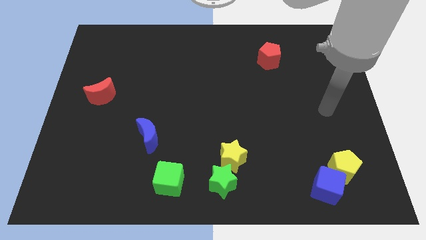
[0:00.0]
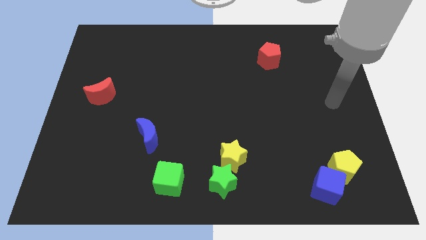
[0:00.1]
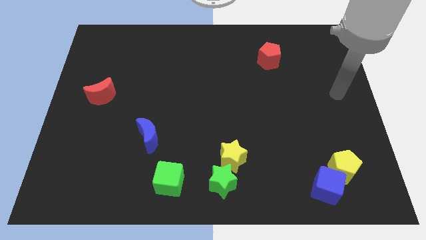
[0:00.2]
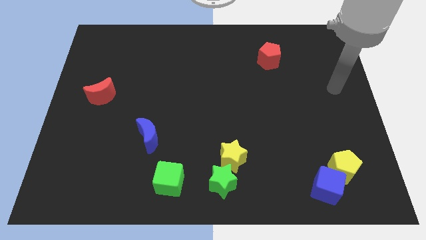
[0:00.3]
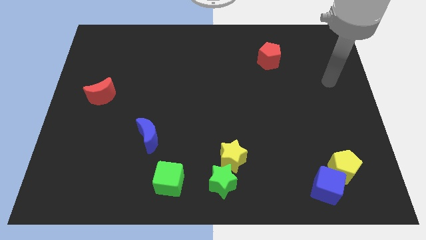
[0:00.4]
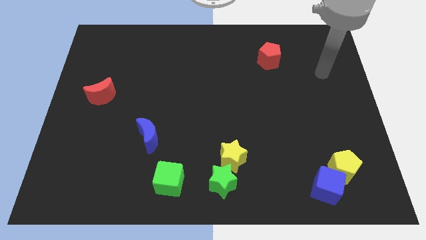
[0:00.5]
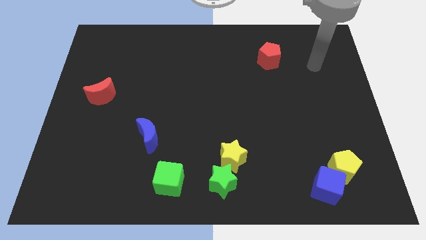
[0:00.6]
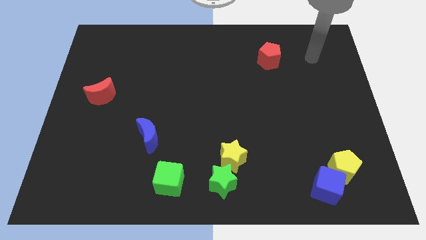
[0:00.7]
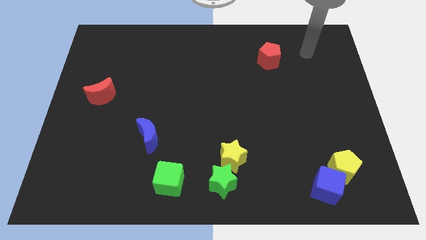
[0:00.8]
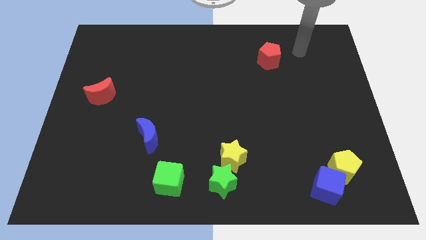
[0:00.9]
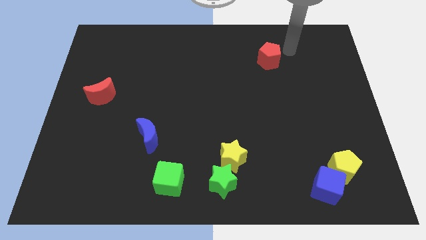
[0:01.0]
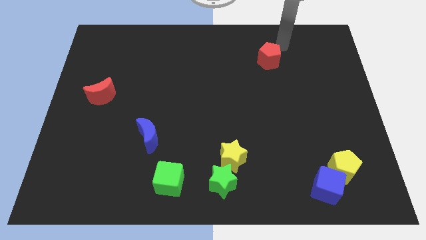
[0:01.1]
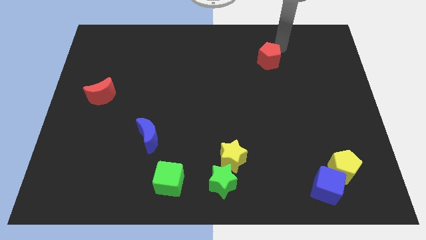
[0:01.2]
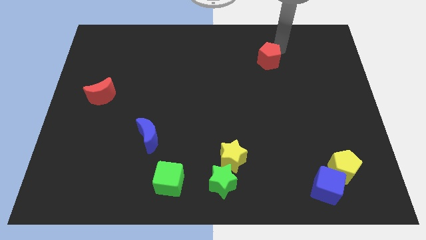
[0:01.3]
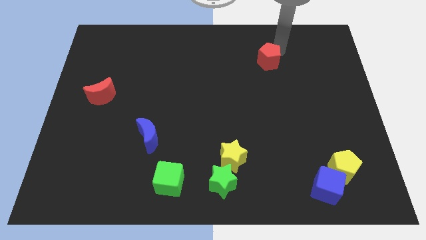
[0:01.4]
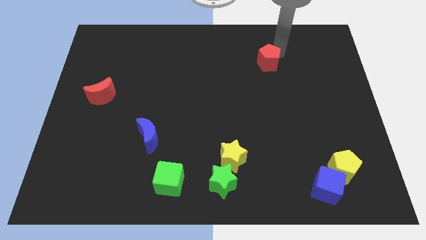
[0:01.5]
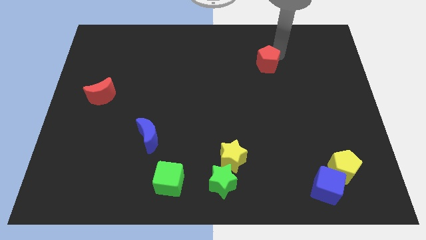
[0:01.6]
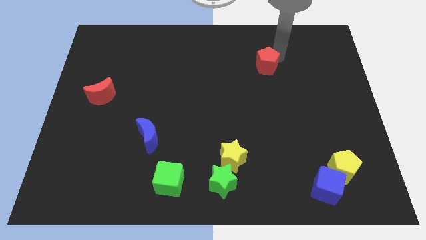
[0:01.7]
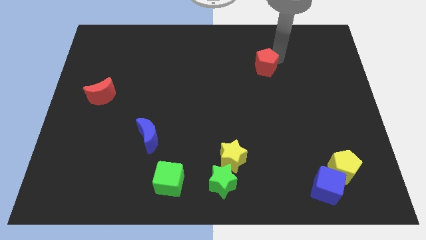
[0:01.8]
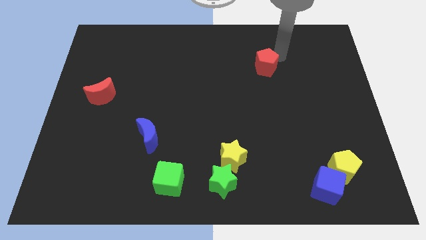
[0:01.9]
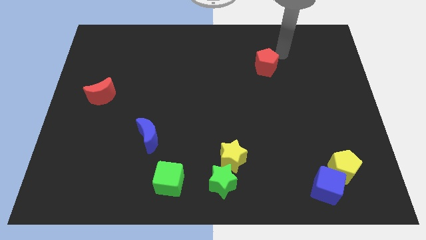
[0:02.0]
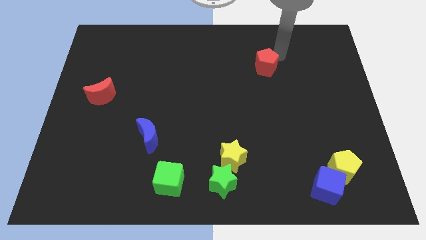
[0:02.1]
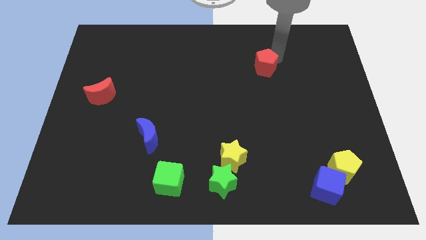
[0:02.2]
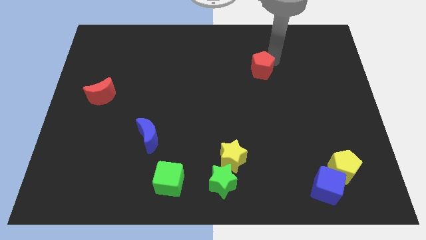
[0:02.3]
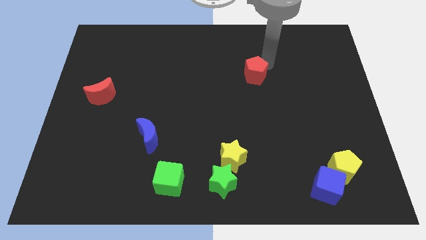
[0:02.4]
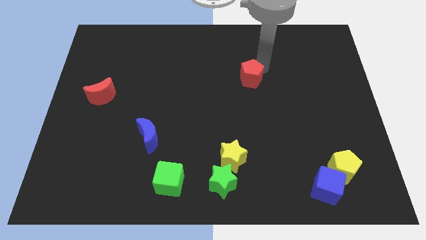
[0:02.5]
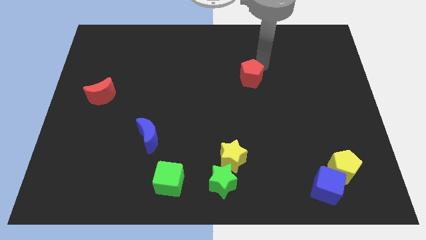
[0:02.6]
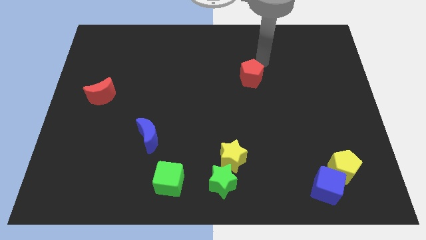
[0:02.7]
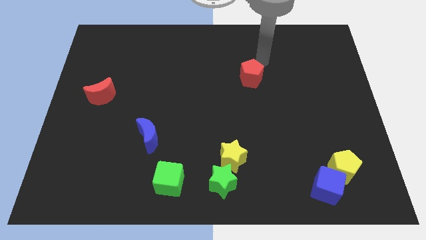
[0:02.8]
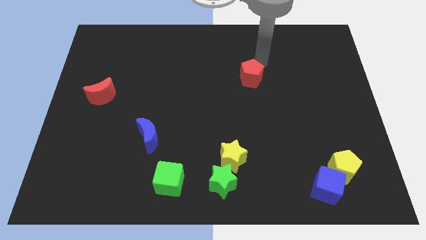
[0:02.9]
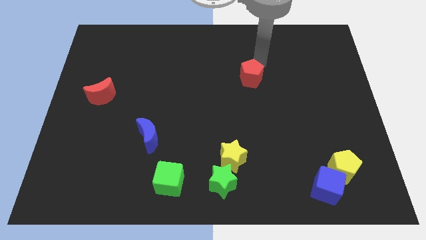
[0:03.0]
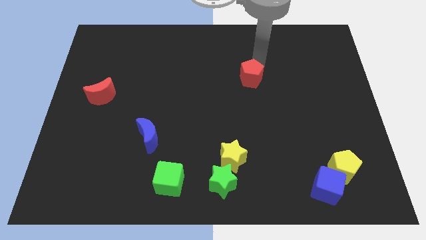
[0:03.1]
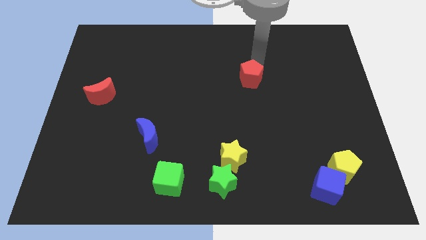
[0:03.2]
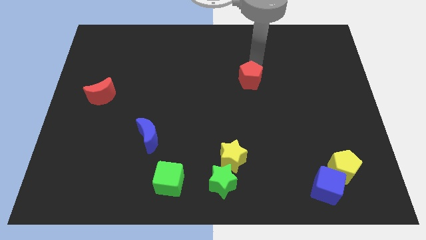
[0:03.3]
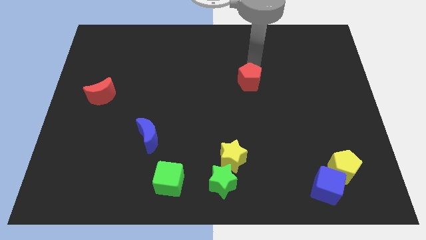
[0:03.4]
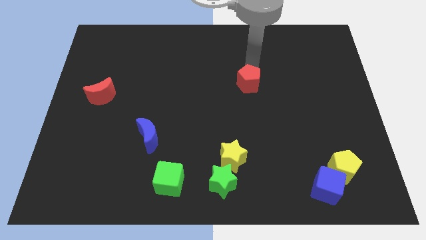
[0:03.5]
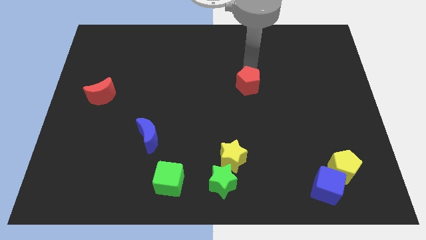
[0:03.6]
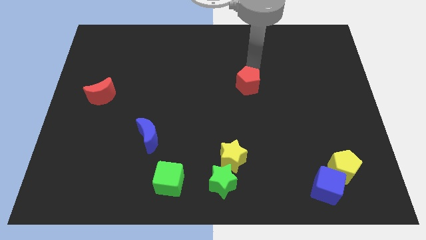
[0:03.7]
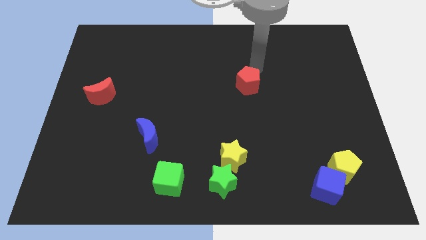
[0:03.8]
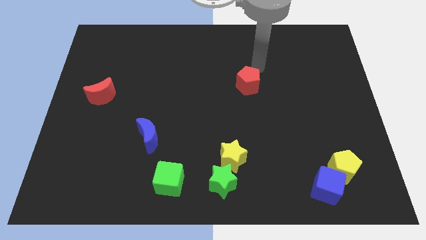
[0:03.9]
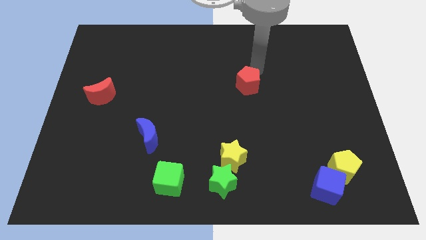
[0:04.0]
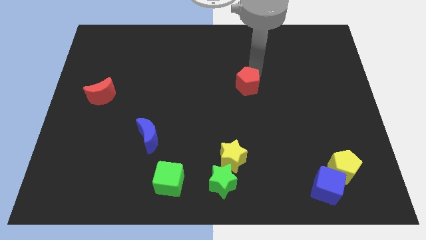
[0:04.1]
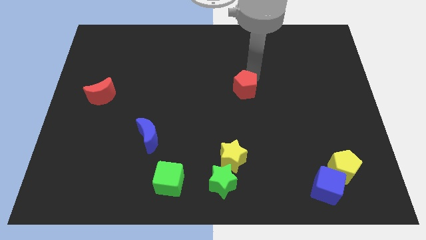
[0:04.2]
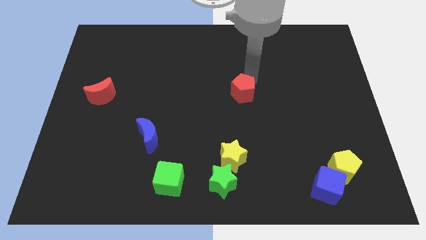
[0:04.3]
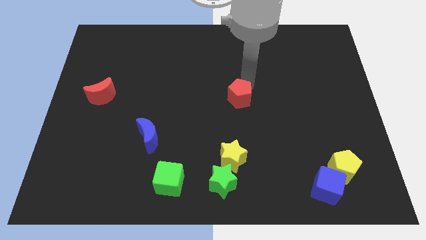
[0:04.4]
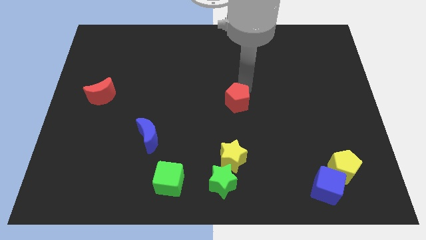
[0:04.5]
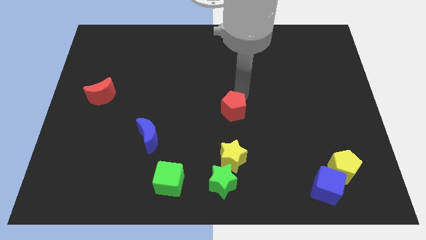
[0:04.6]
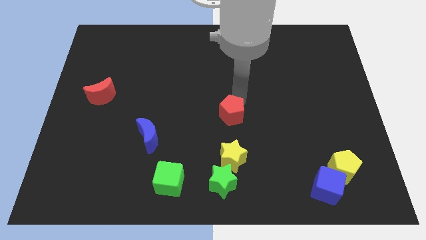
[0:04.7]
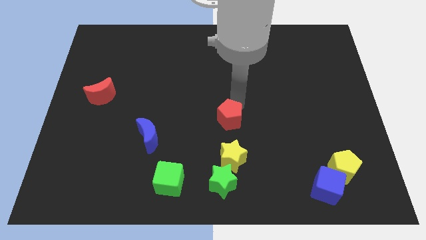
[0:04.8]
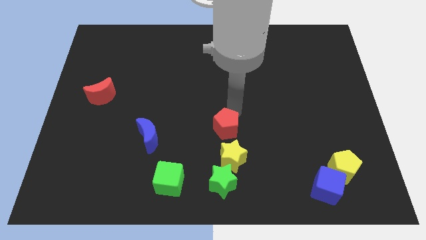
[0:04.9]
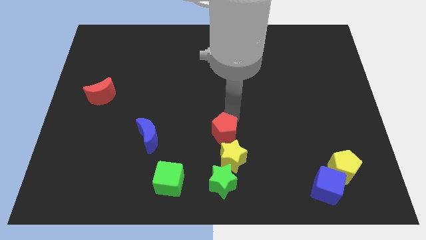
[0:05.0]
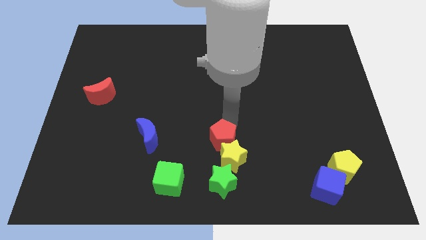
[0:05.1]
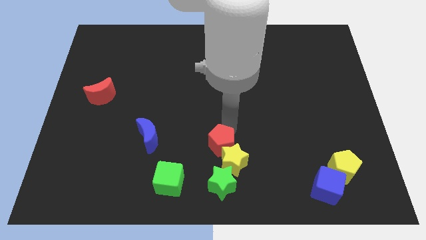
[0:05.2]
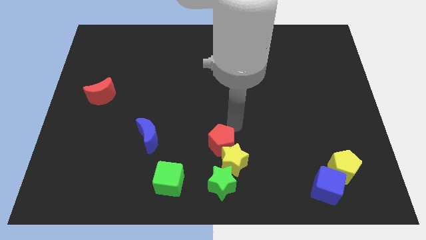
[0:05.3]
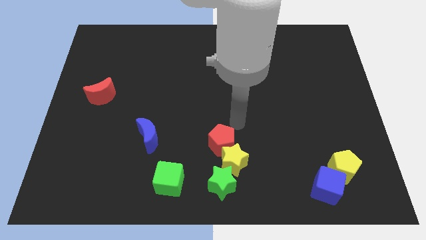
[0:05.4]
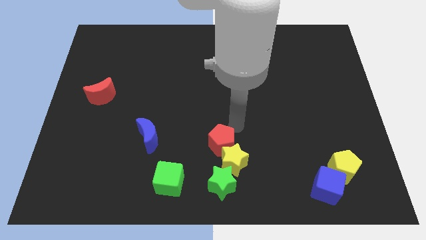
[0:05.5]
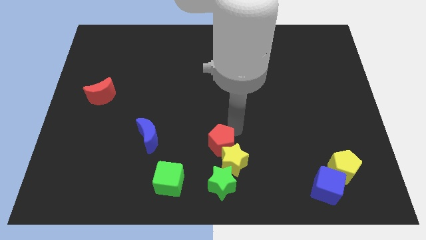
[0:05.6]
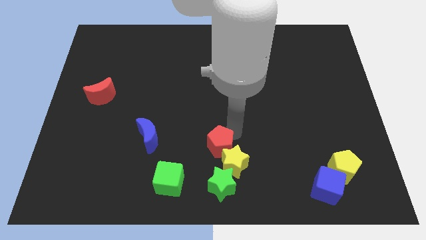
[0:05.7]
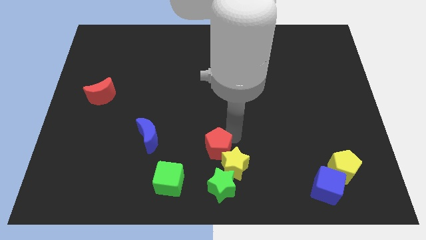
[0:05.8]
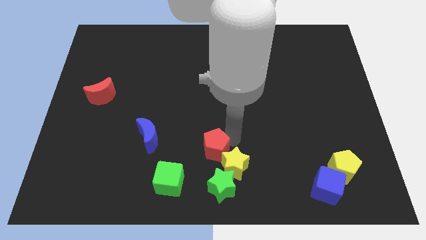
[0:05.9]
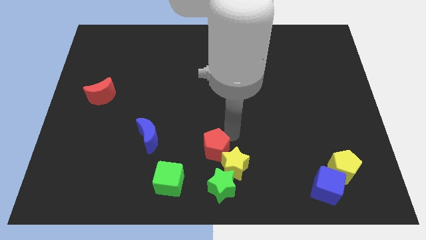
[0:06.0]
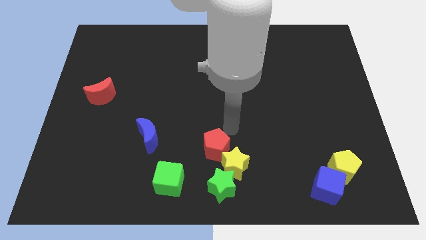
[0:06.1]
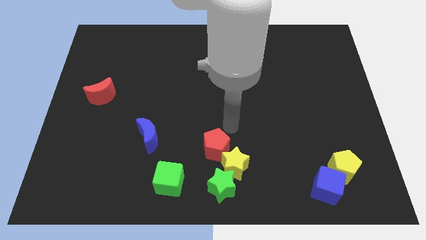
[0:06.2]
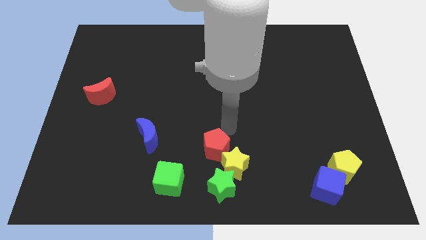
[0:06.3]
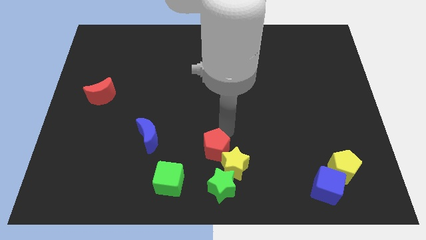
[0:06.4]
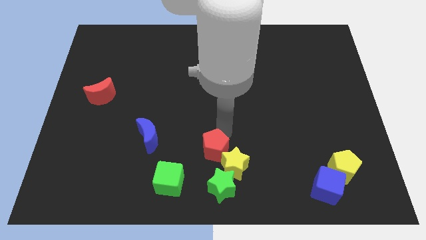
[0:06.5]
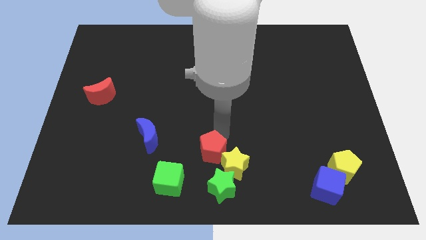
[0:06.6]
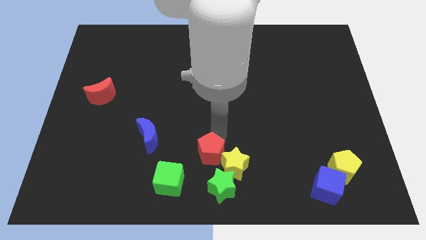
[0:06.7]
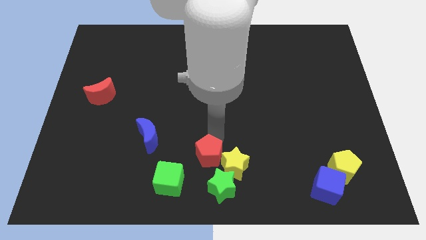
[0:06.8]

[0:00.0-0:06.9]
move the red pentagon to the bottom side

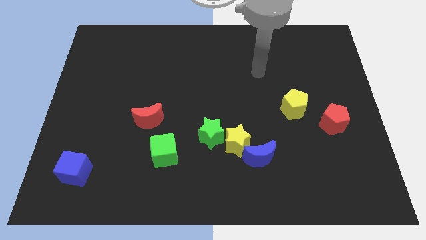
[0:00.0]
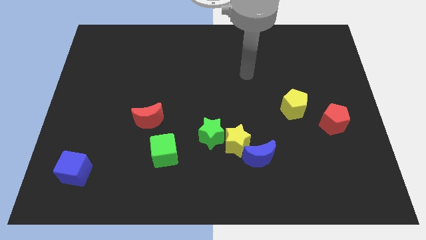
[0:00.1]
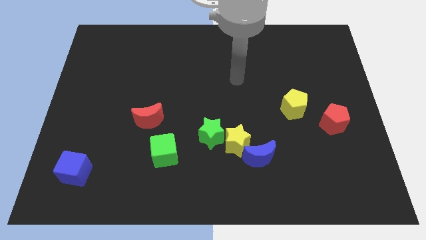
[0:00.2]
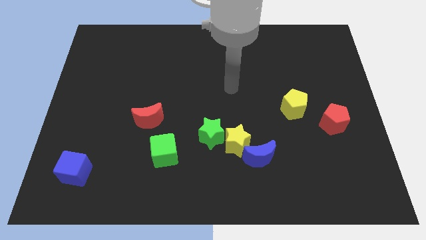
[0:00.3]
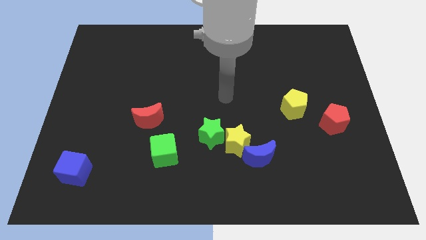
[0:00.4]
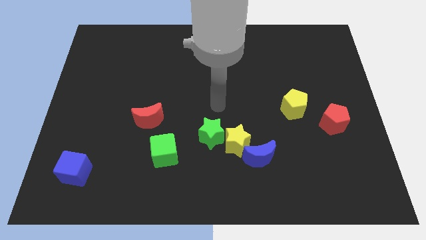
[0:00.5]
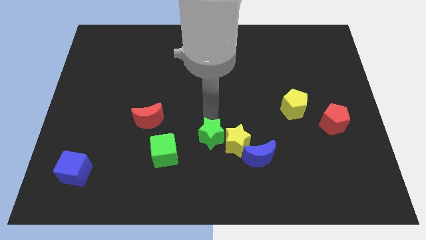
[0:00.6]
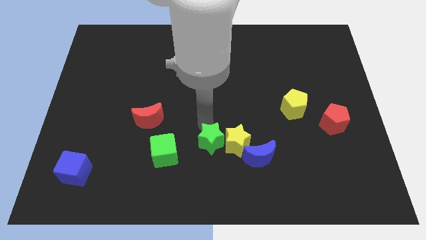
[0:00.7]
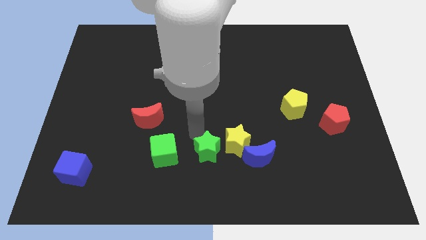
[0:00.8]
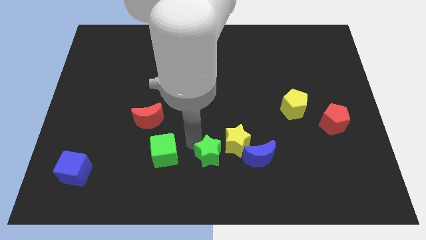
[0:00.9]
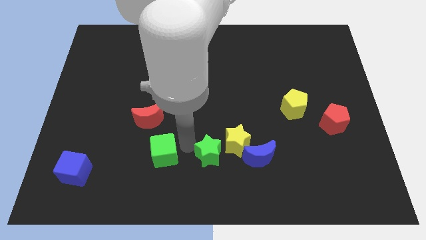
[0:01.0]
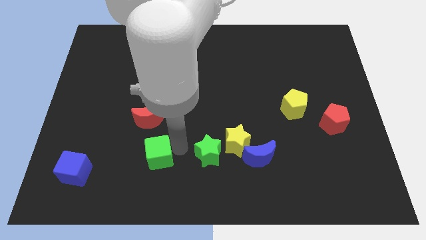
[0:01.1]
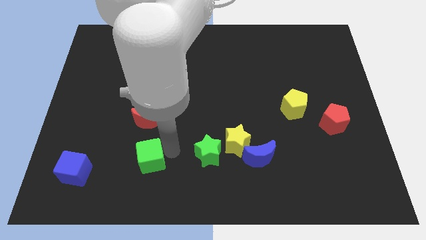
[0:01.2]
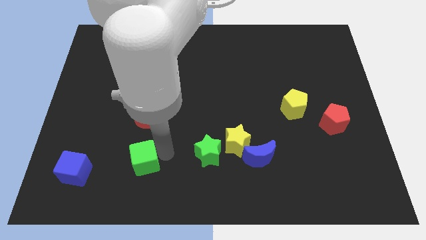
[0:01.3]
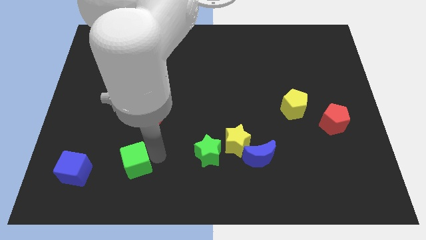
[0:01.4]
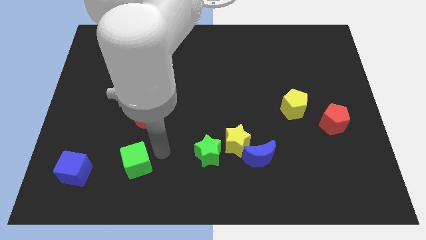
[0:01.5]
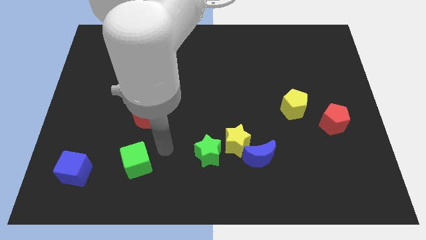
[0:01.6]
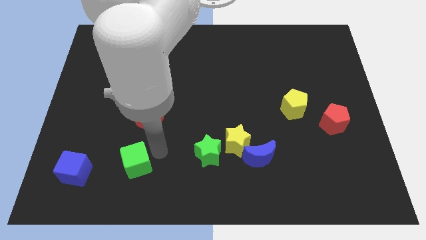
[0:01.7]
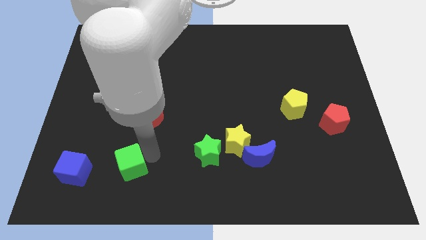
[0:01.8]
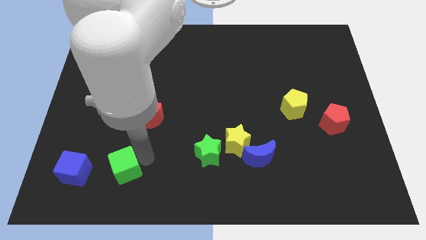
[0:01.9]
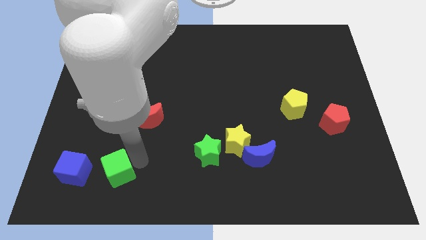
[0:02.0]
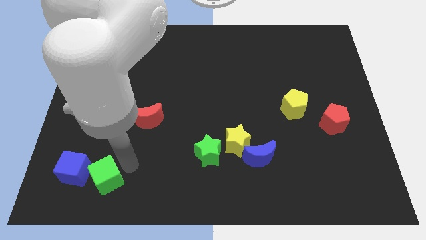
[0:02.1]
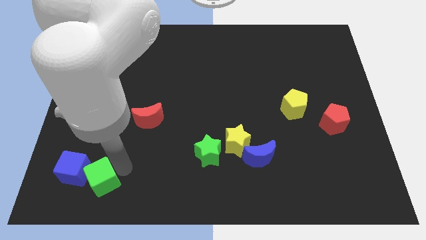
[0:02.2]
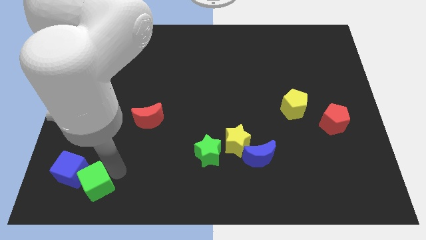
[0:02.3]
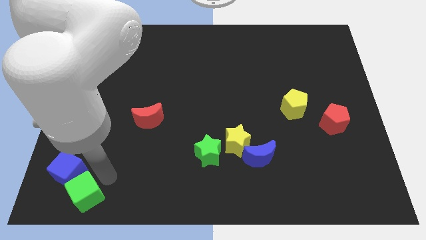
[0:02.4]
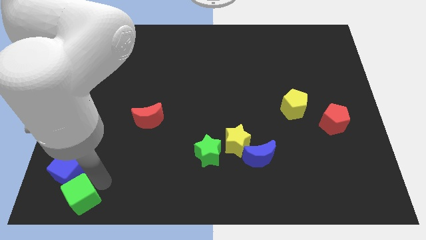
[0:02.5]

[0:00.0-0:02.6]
slide the green cube to the bottom left
